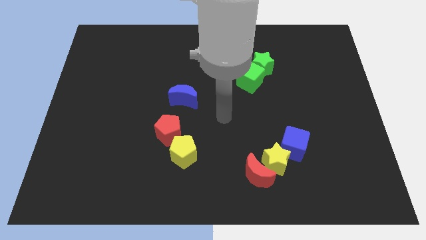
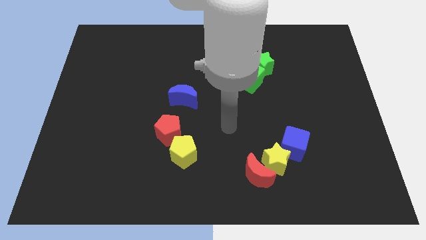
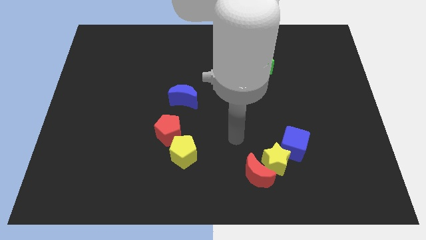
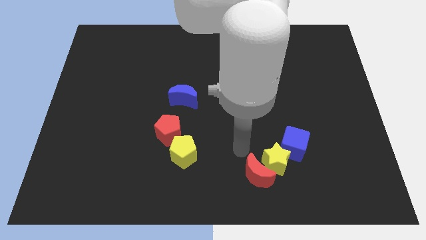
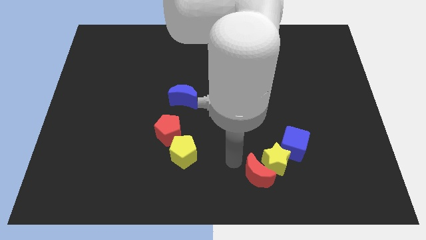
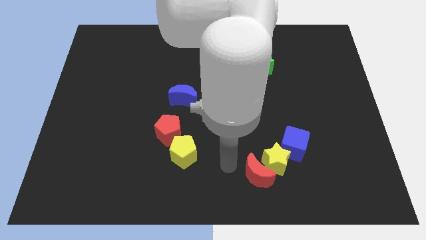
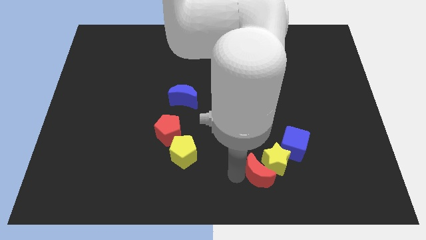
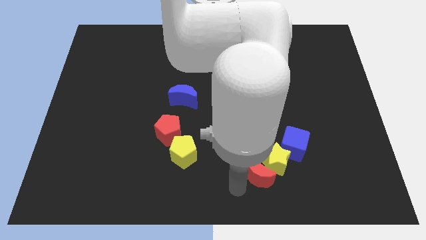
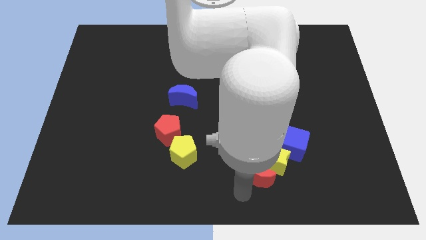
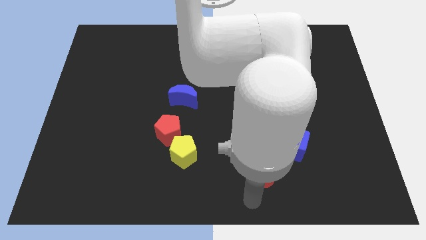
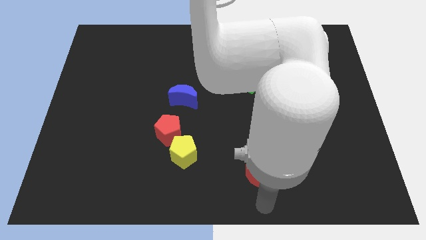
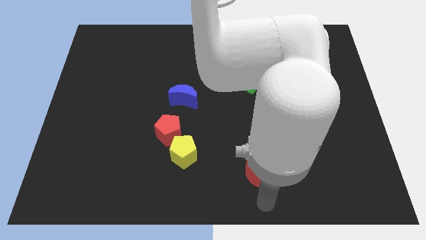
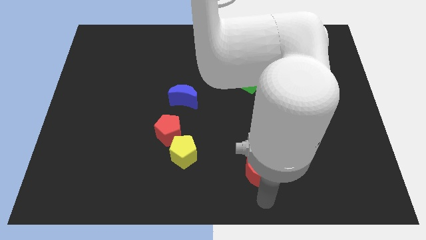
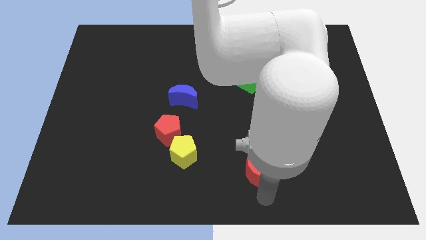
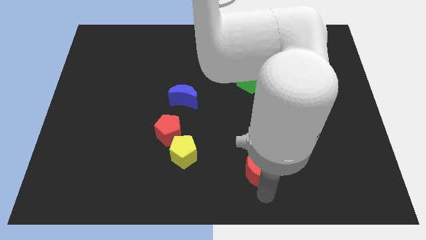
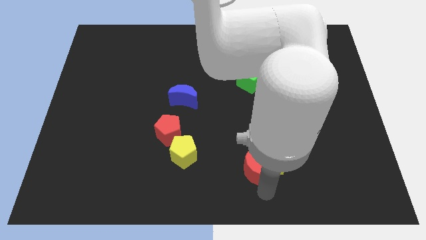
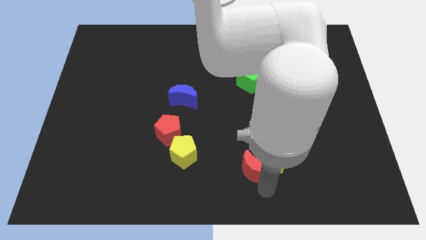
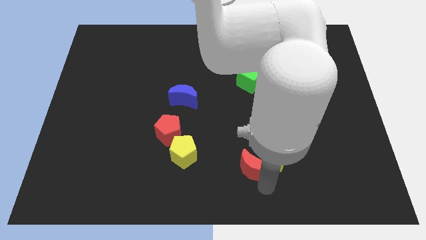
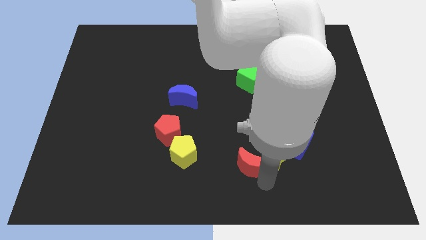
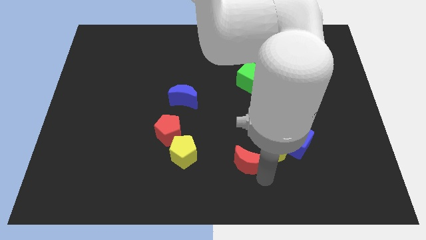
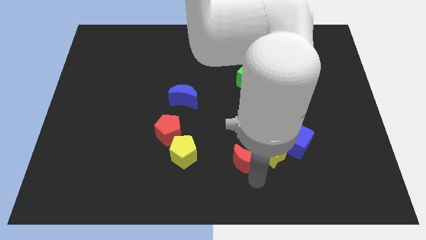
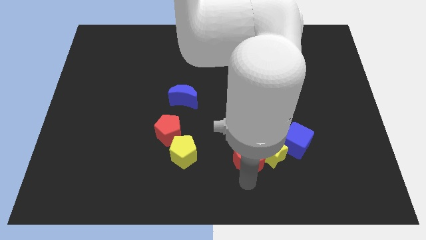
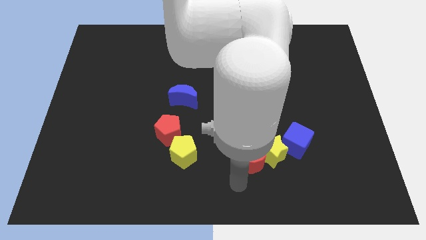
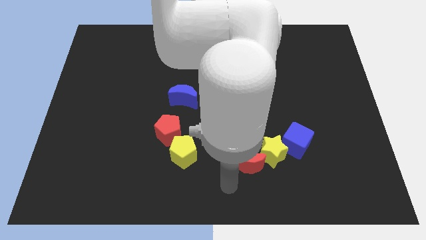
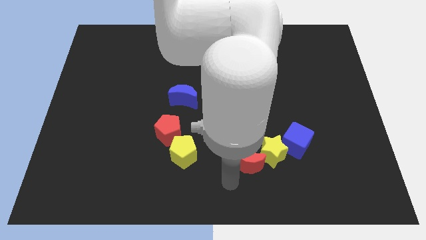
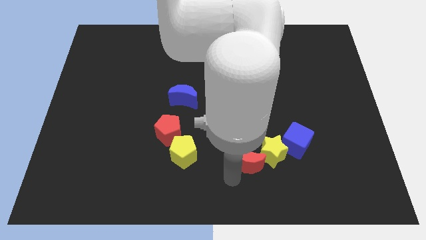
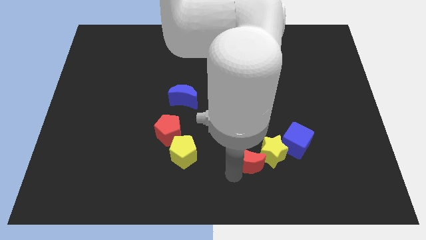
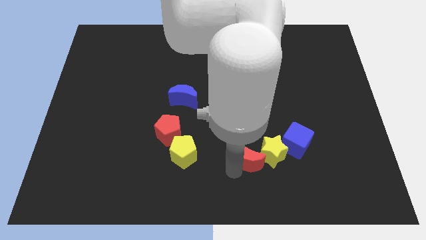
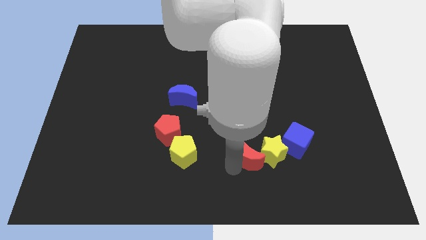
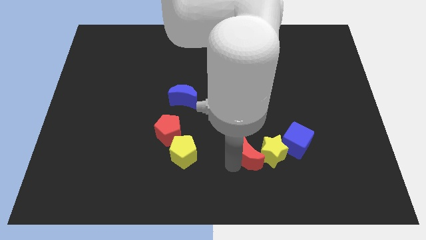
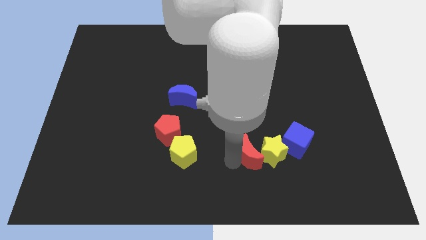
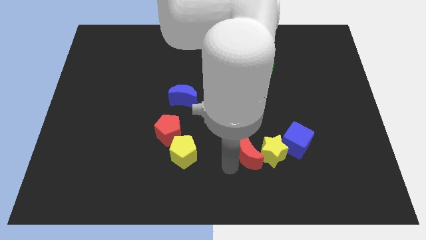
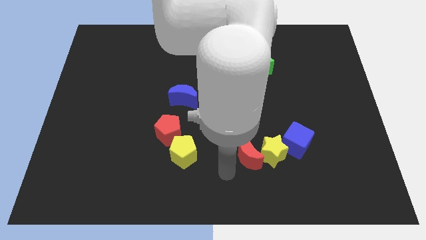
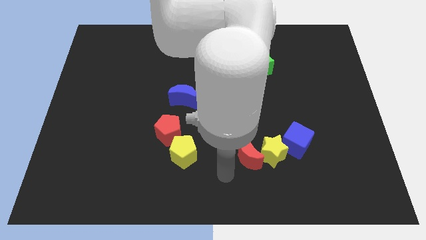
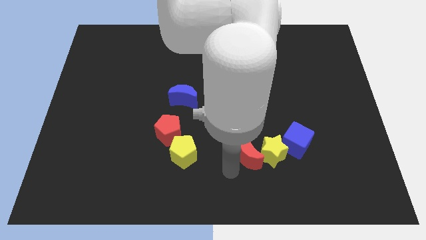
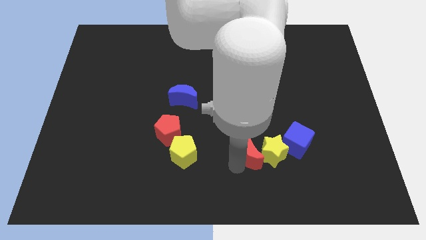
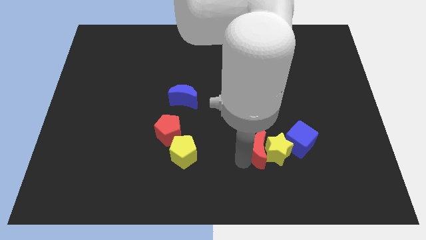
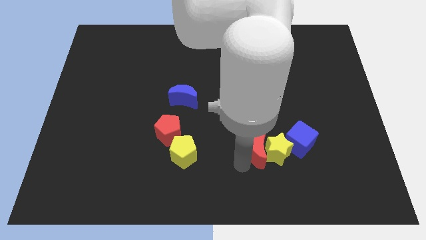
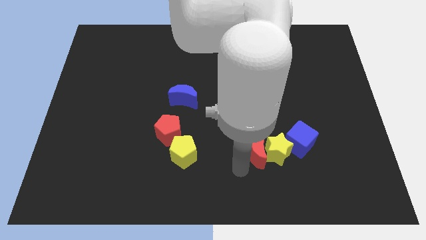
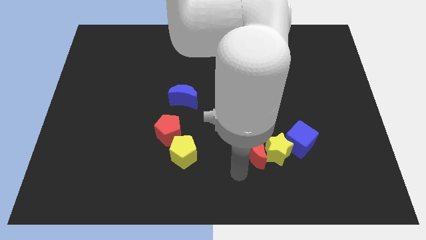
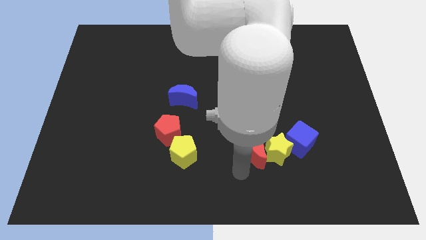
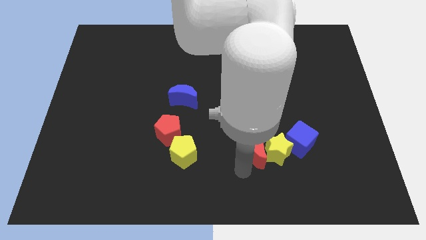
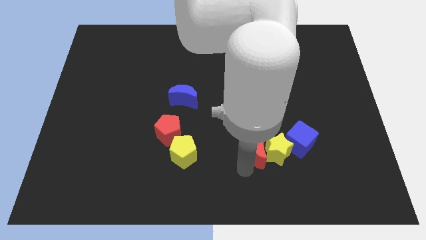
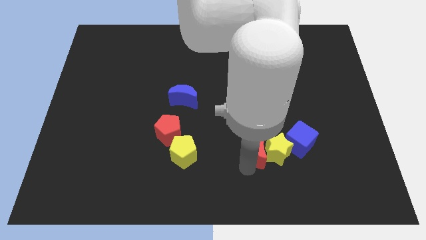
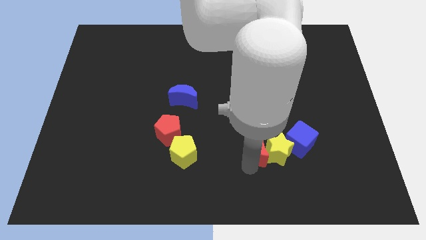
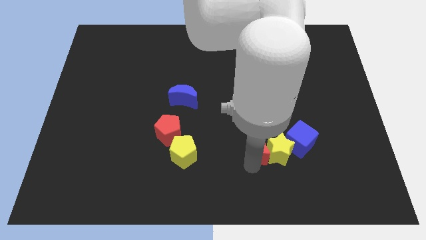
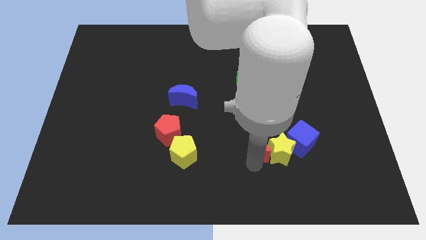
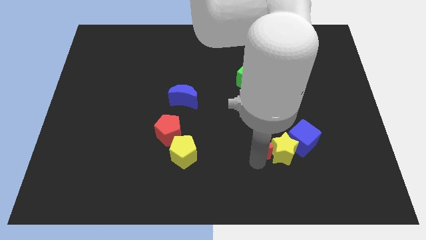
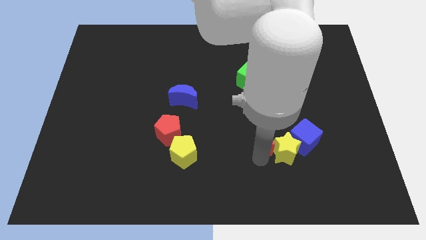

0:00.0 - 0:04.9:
slightly slide the red moon up and right diagonally

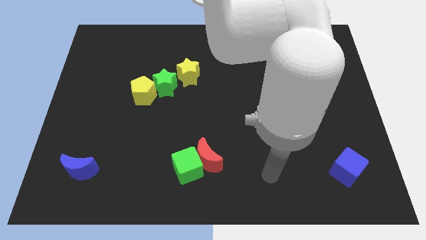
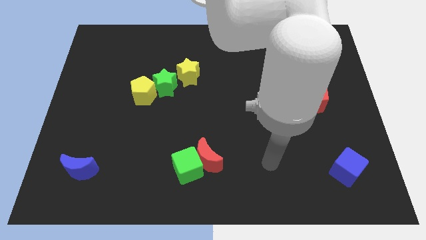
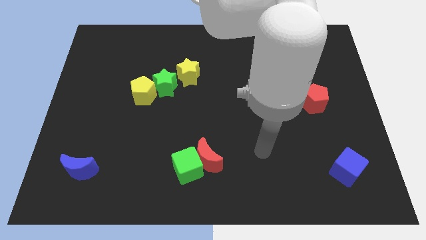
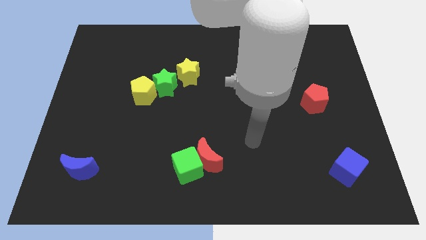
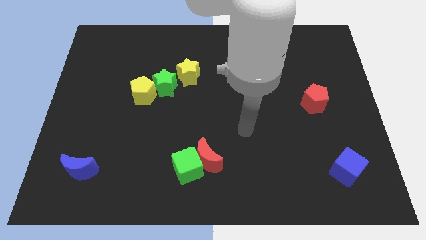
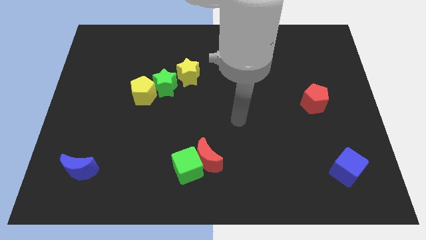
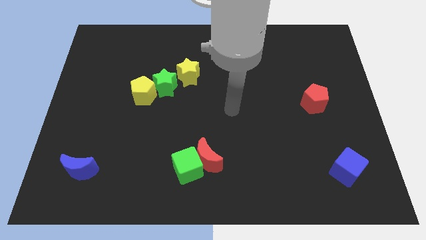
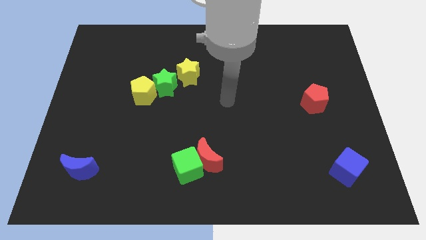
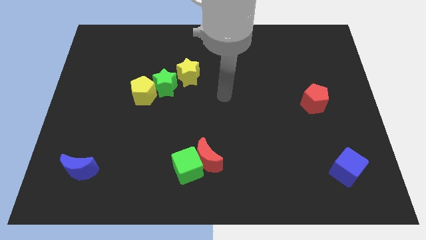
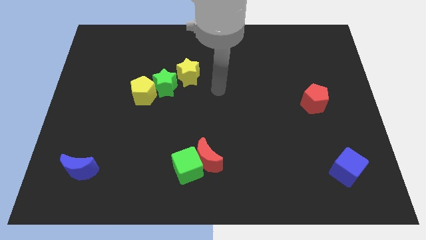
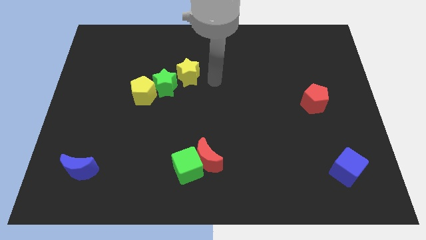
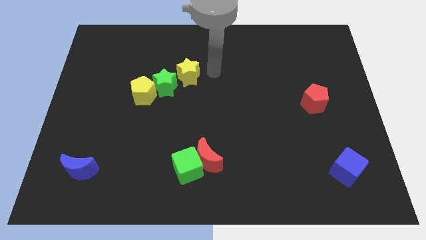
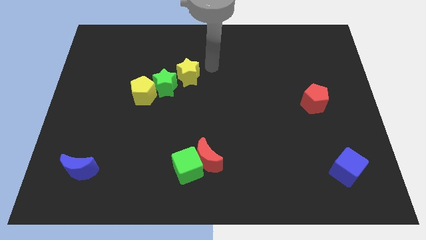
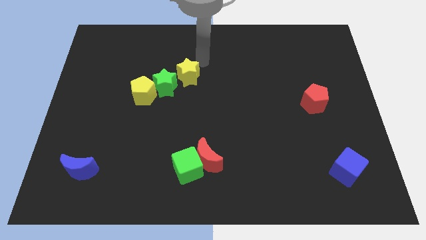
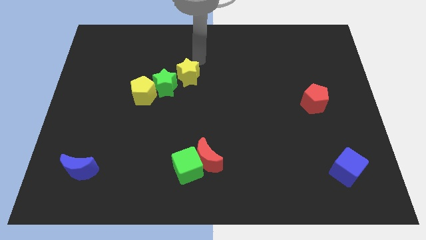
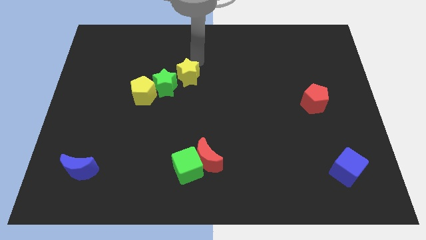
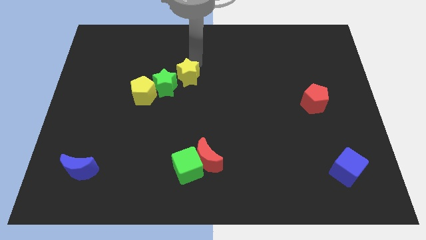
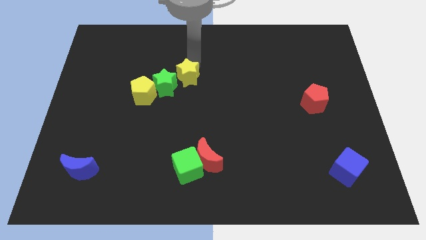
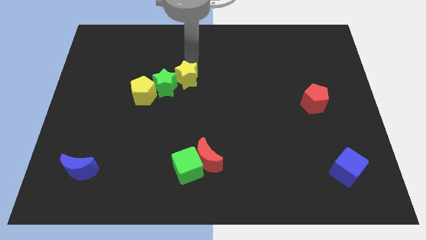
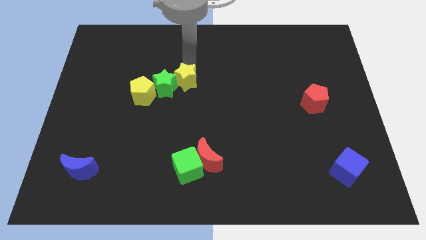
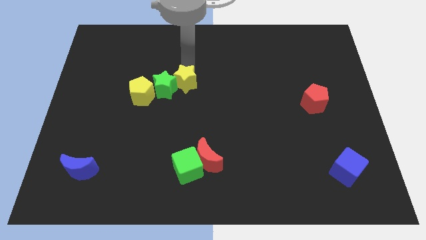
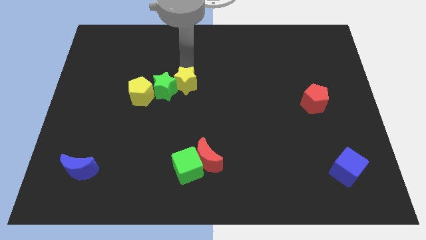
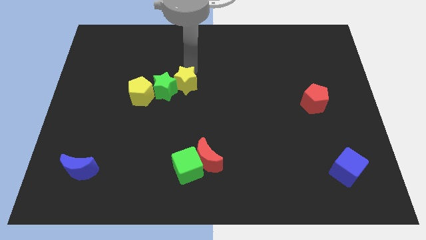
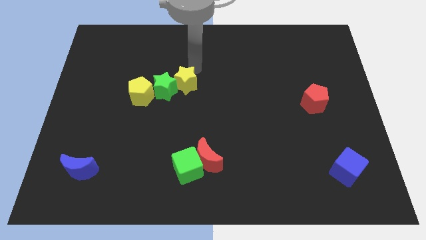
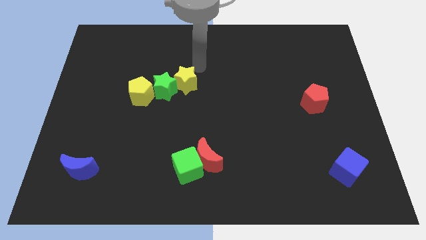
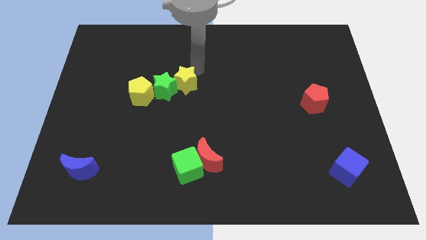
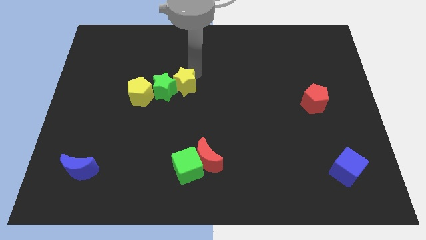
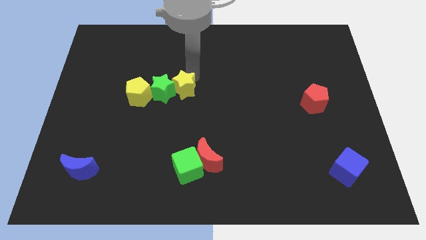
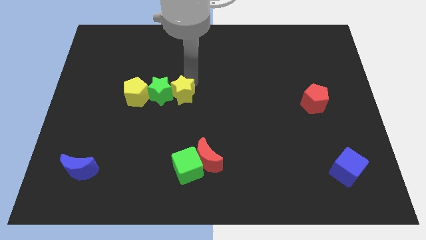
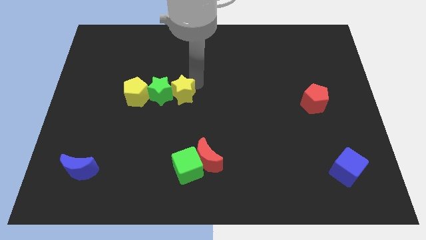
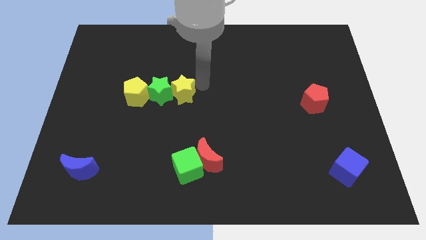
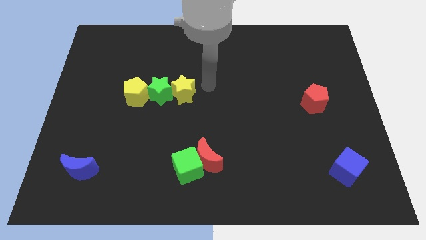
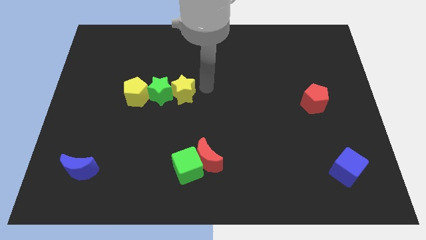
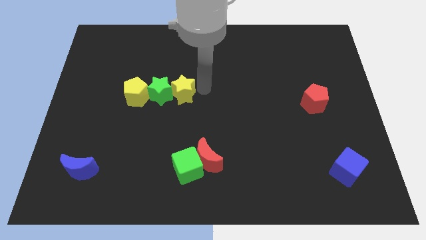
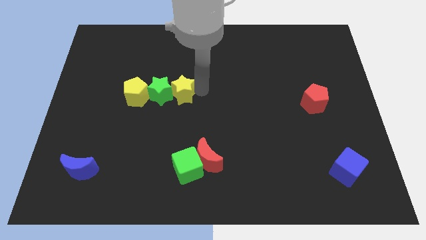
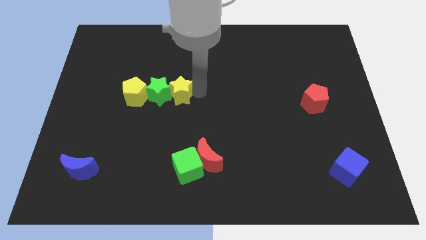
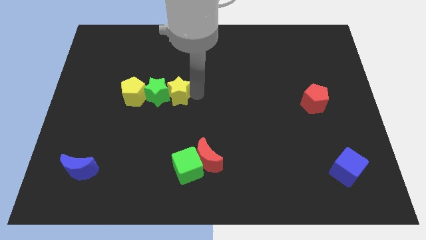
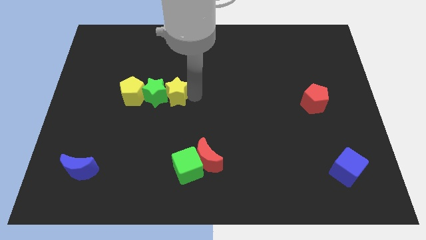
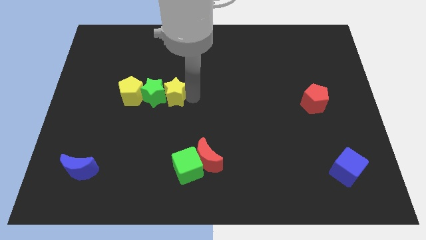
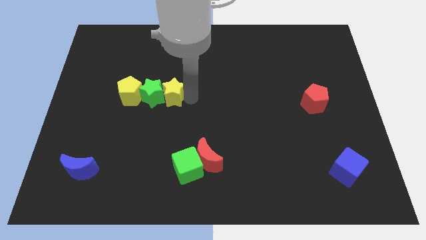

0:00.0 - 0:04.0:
slightly slide the yellow star diagonally downwards and left
